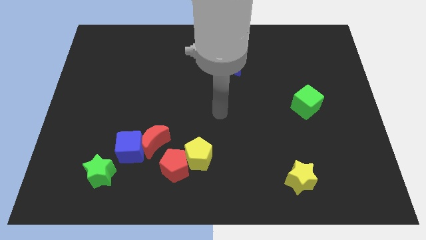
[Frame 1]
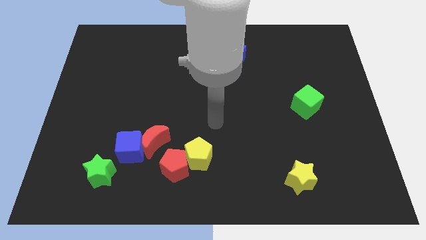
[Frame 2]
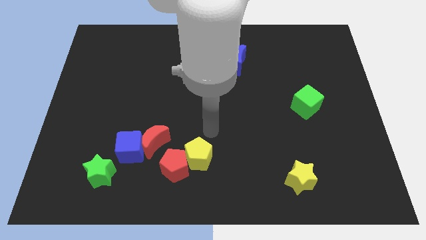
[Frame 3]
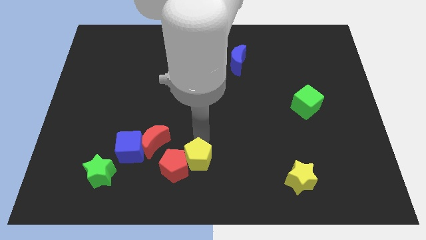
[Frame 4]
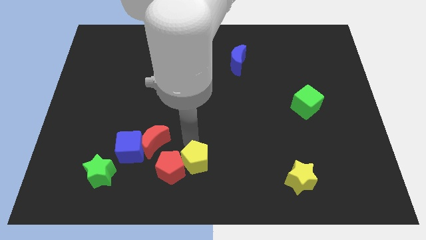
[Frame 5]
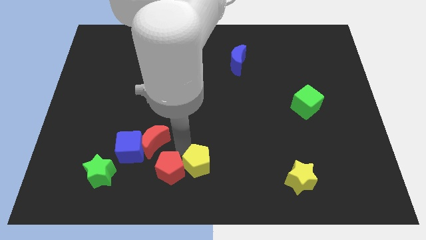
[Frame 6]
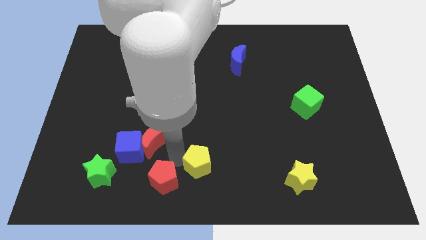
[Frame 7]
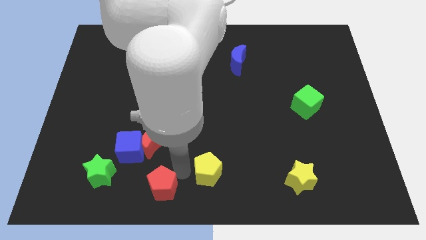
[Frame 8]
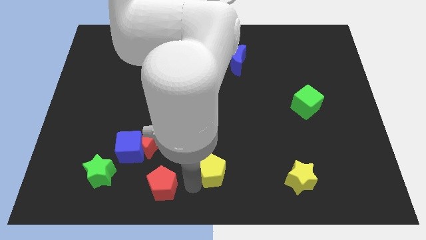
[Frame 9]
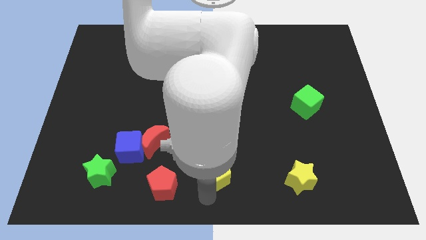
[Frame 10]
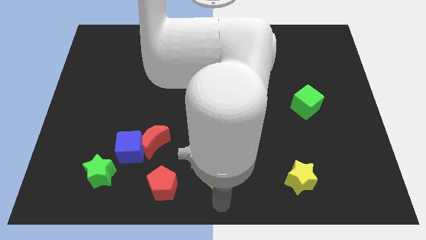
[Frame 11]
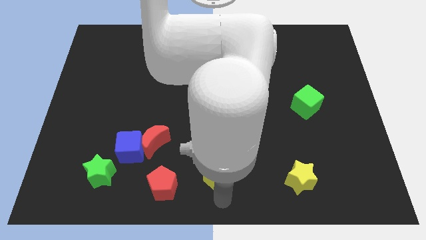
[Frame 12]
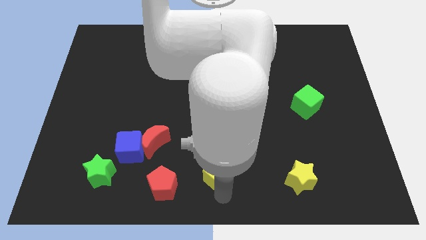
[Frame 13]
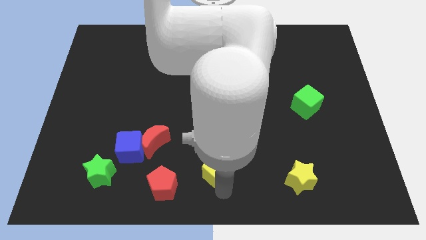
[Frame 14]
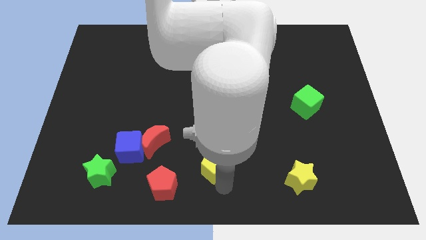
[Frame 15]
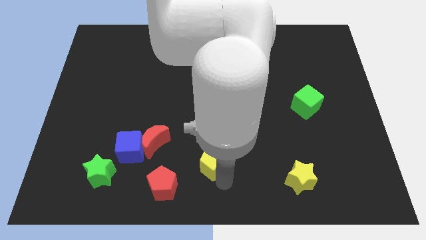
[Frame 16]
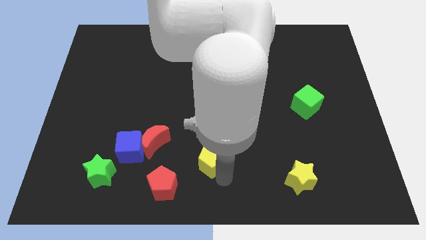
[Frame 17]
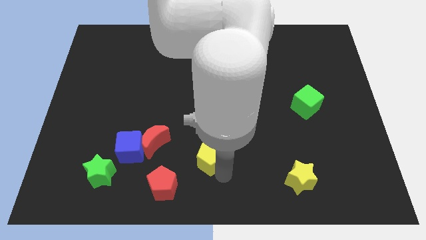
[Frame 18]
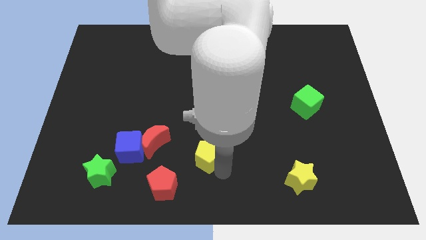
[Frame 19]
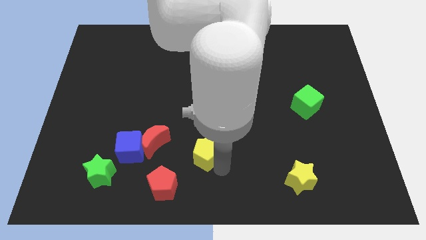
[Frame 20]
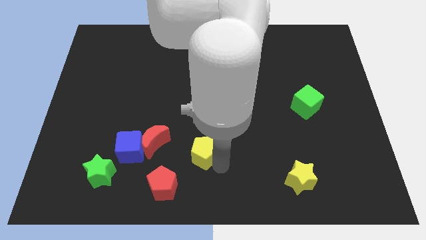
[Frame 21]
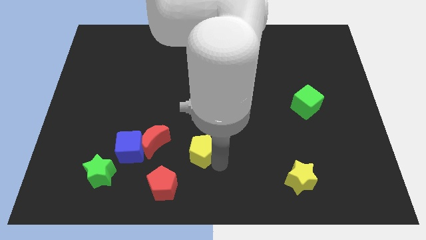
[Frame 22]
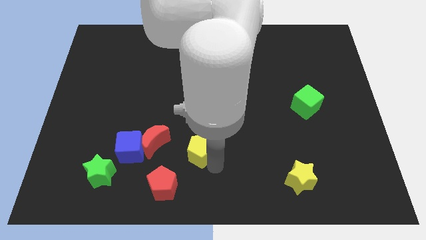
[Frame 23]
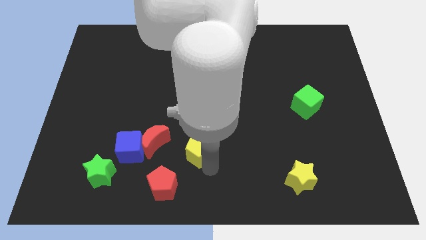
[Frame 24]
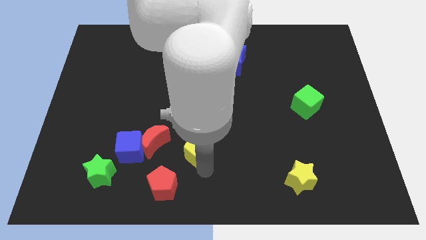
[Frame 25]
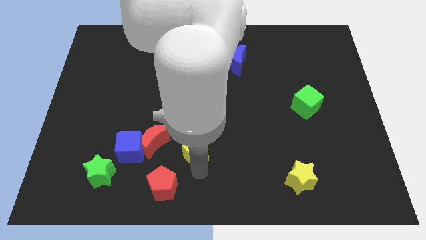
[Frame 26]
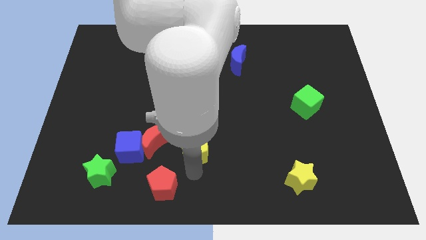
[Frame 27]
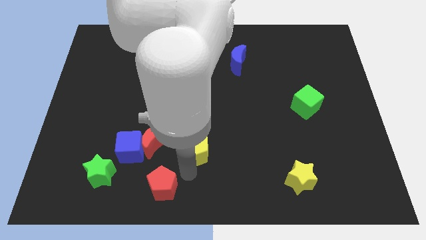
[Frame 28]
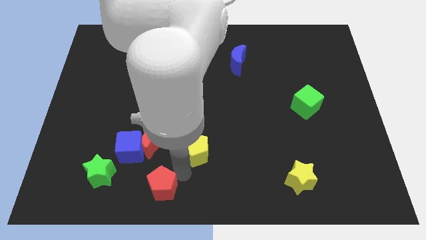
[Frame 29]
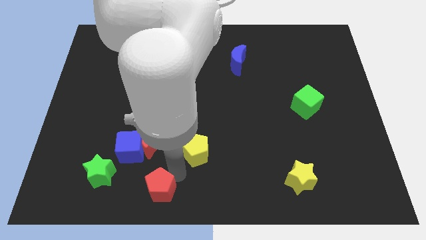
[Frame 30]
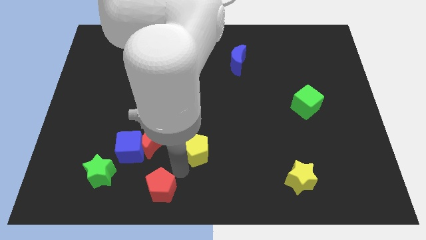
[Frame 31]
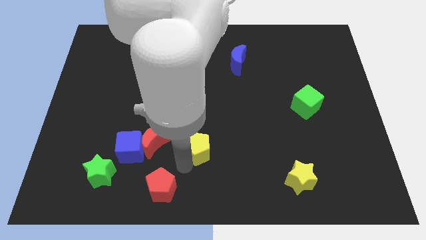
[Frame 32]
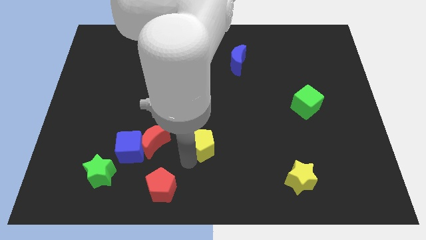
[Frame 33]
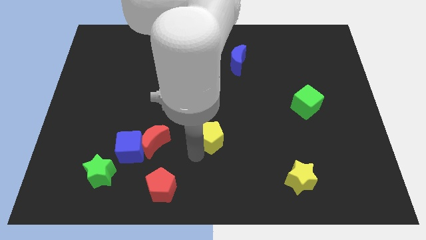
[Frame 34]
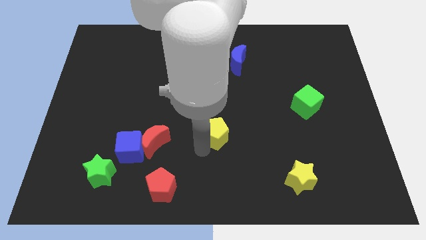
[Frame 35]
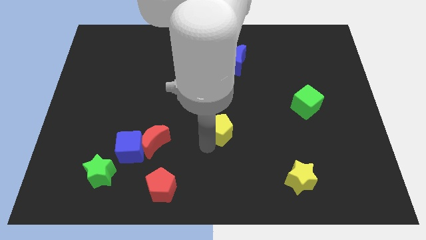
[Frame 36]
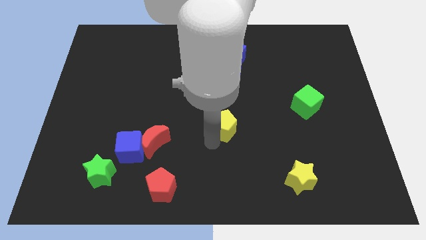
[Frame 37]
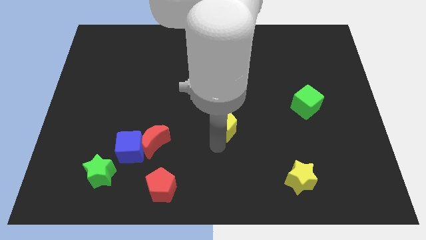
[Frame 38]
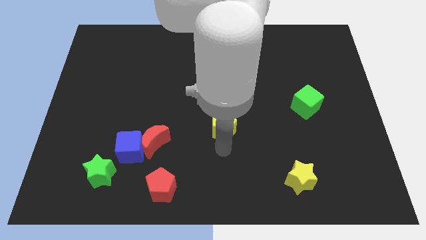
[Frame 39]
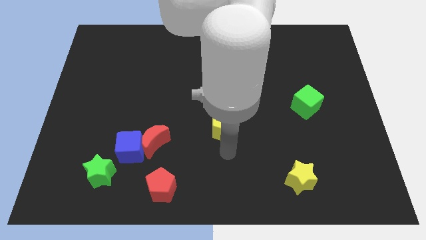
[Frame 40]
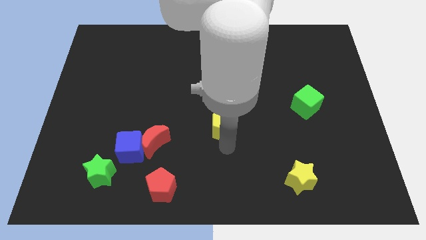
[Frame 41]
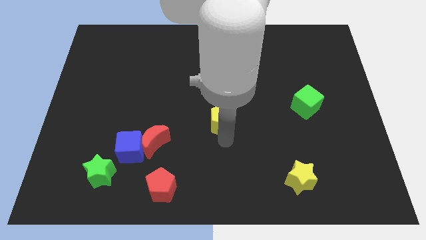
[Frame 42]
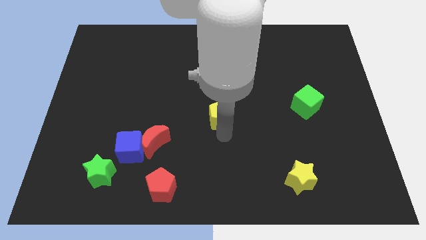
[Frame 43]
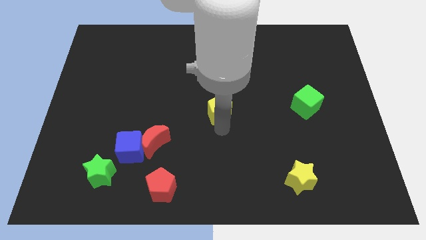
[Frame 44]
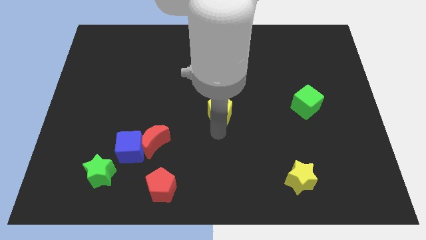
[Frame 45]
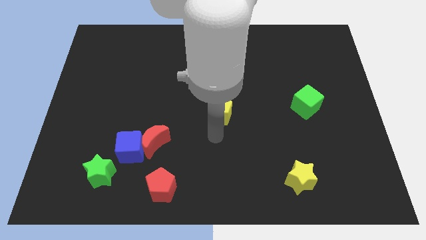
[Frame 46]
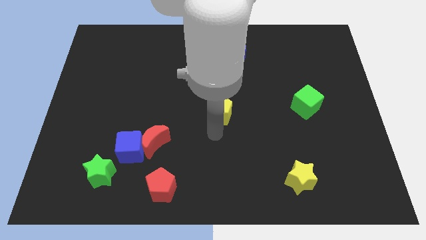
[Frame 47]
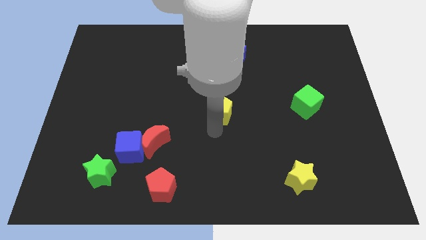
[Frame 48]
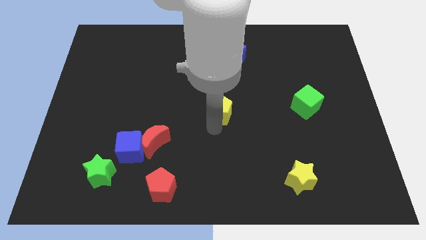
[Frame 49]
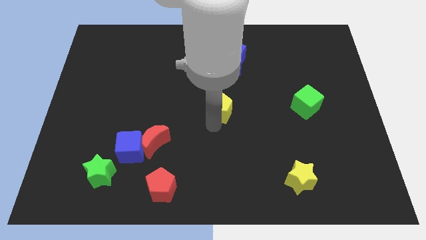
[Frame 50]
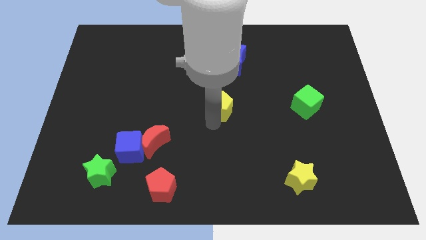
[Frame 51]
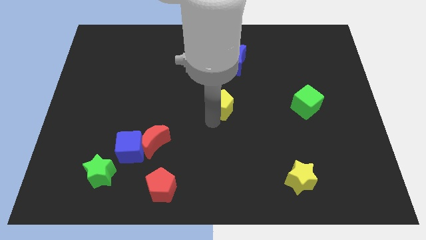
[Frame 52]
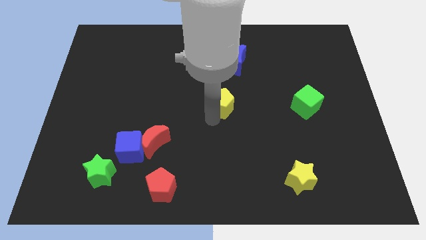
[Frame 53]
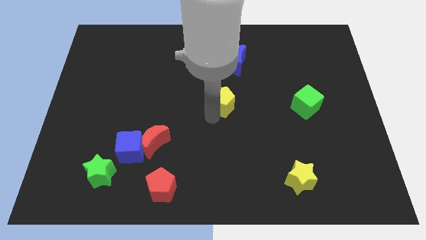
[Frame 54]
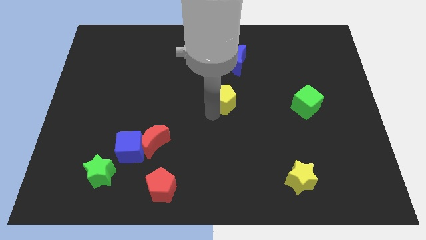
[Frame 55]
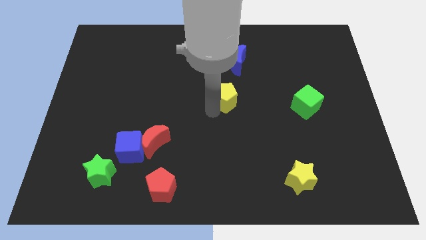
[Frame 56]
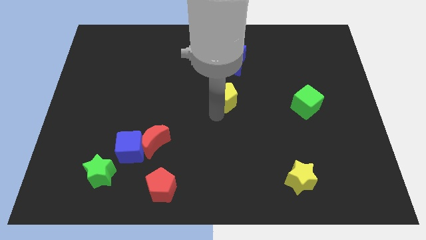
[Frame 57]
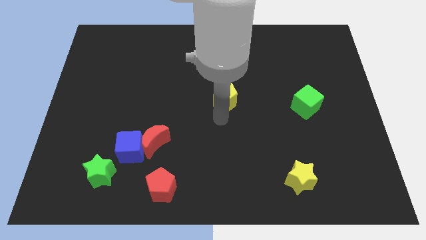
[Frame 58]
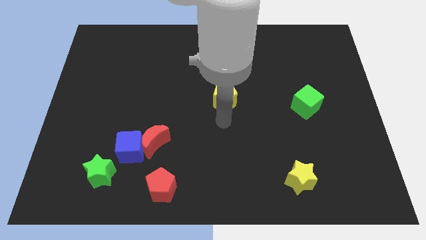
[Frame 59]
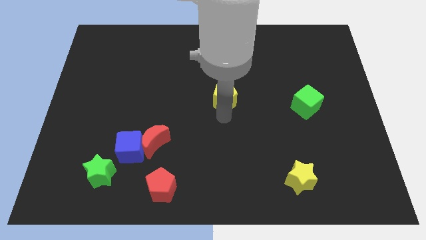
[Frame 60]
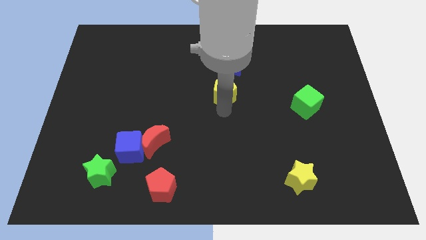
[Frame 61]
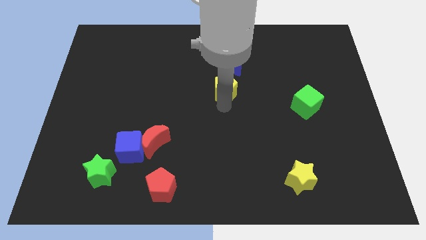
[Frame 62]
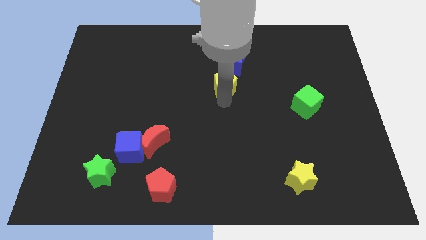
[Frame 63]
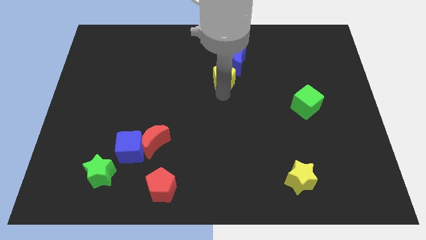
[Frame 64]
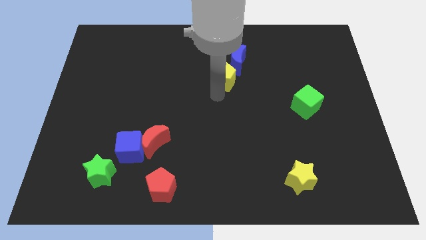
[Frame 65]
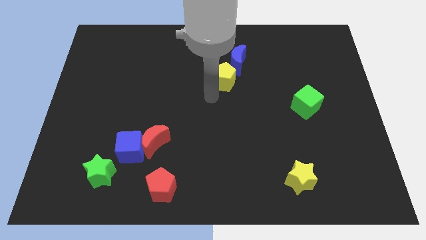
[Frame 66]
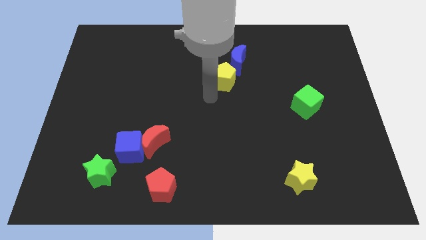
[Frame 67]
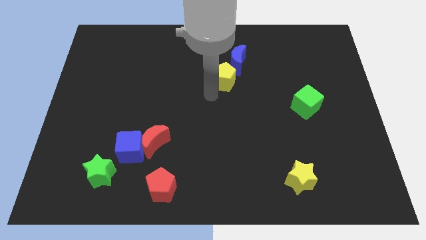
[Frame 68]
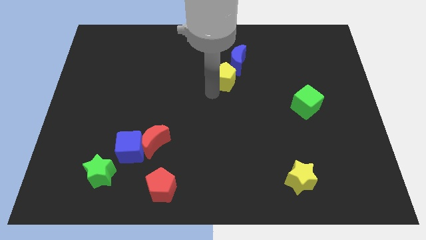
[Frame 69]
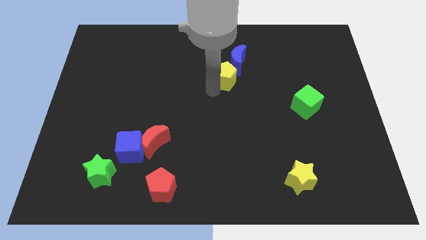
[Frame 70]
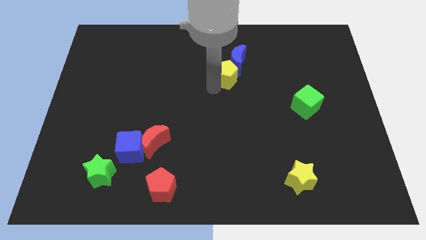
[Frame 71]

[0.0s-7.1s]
put the yellow pentagon towards the blue moon
